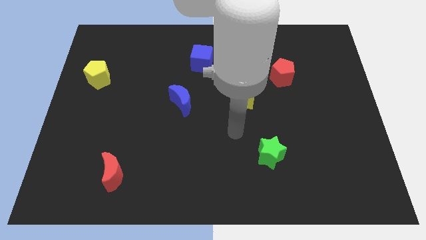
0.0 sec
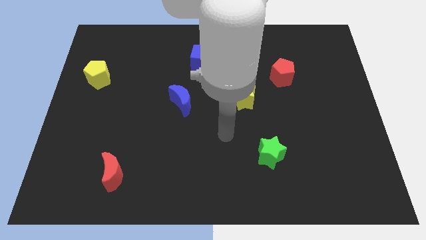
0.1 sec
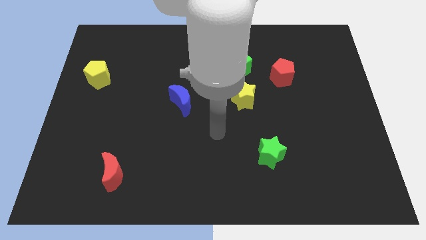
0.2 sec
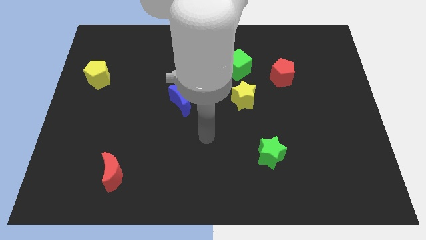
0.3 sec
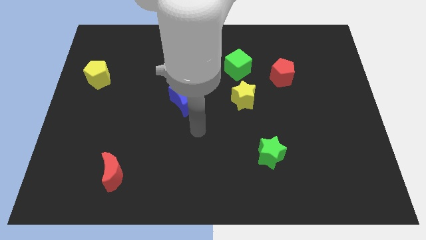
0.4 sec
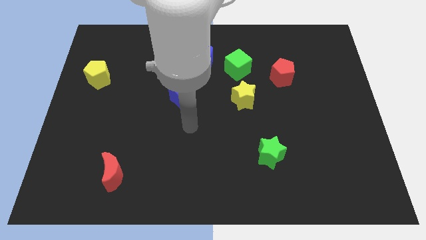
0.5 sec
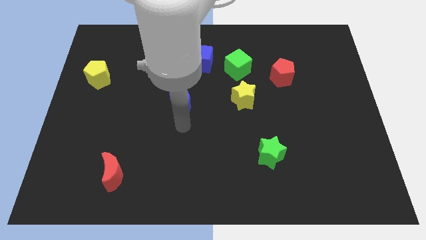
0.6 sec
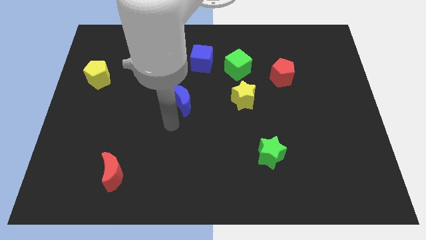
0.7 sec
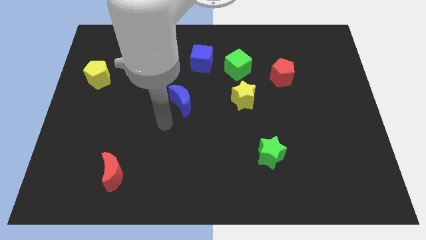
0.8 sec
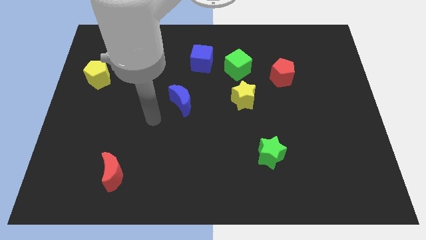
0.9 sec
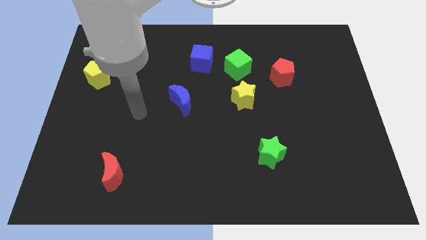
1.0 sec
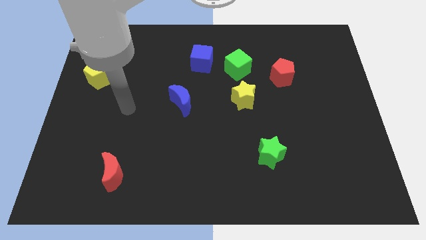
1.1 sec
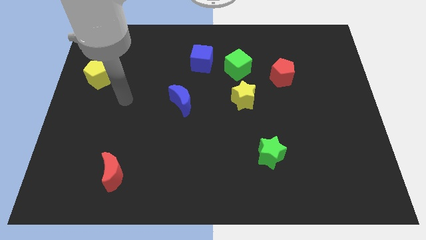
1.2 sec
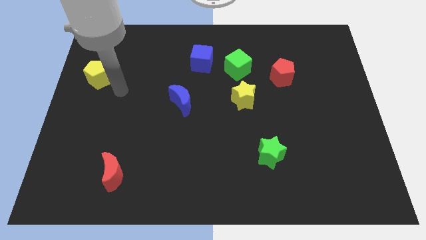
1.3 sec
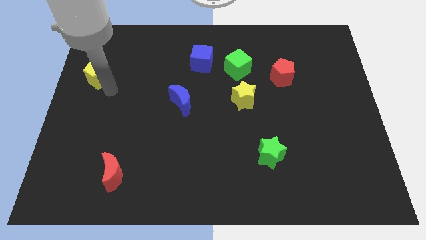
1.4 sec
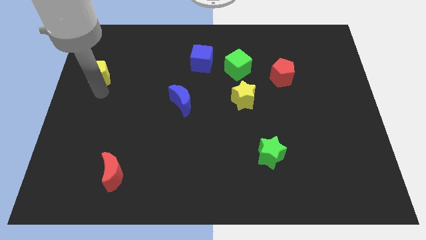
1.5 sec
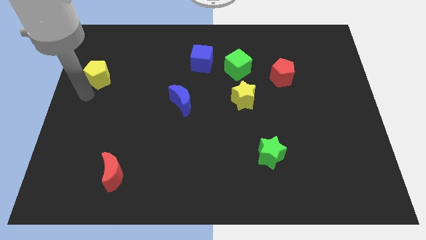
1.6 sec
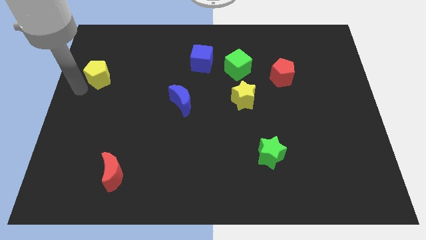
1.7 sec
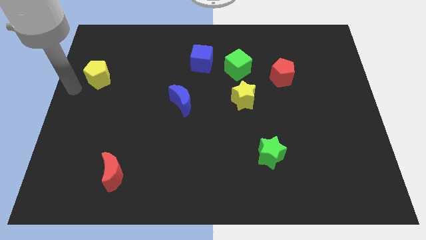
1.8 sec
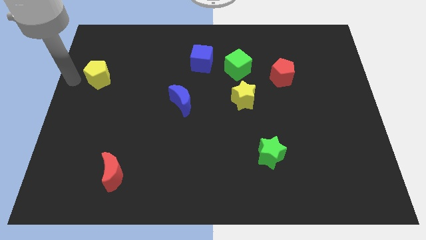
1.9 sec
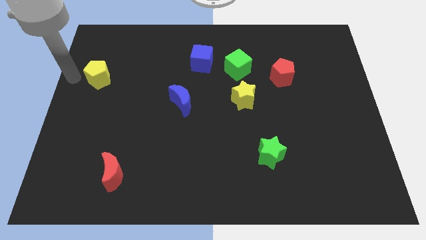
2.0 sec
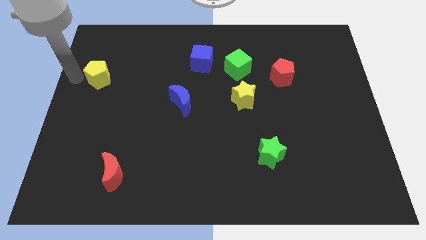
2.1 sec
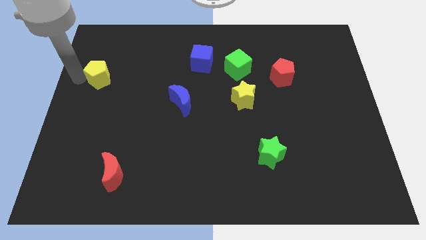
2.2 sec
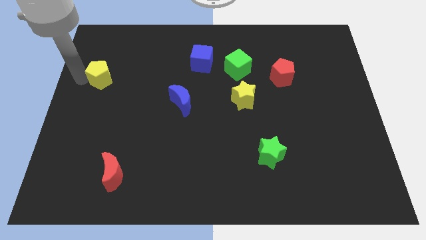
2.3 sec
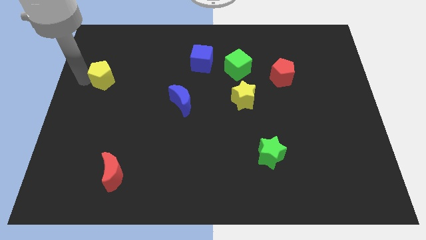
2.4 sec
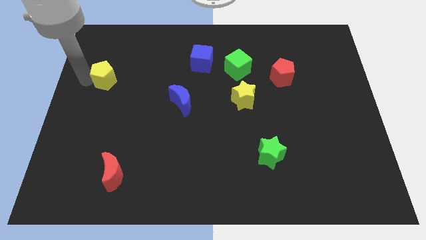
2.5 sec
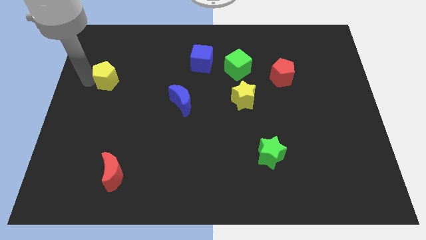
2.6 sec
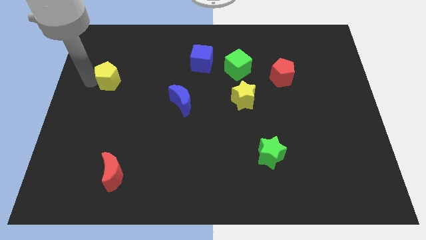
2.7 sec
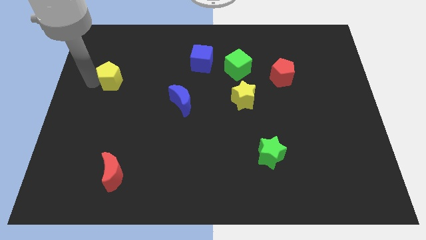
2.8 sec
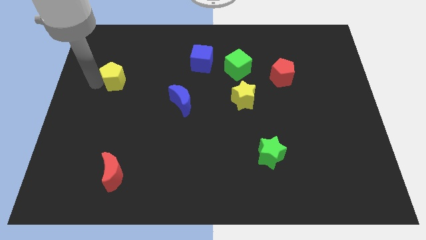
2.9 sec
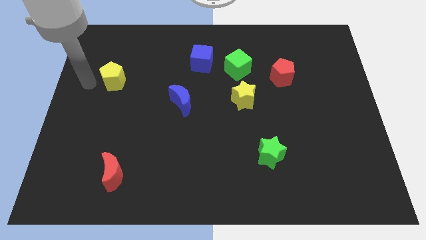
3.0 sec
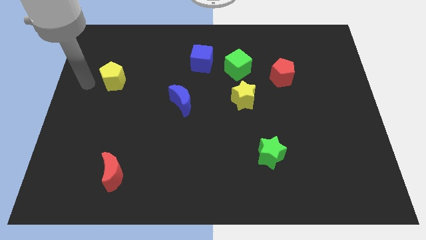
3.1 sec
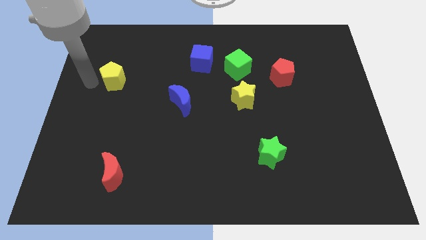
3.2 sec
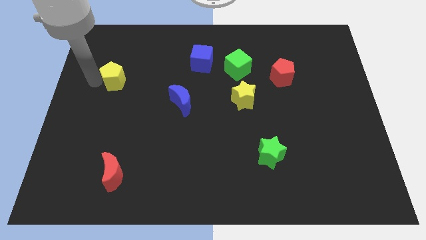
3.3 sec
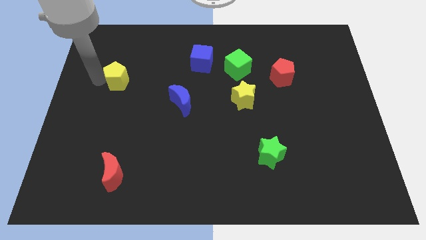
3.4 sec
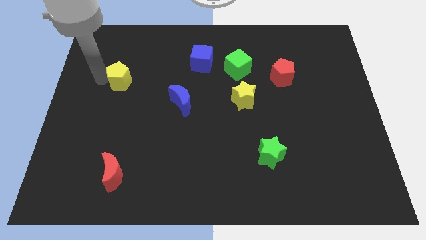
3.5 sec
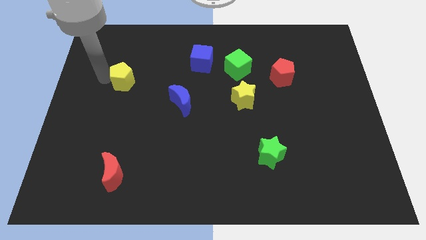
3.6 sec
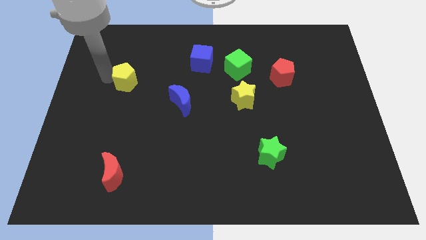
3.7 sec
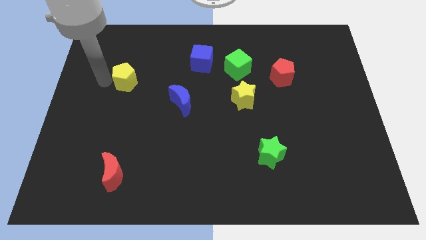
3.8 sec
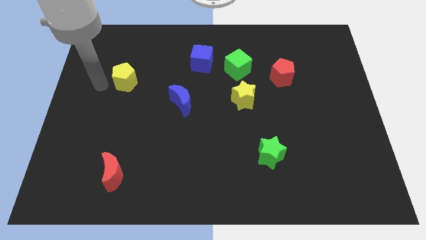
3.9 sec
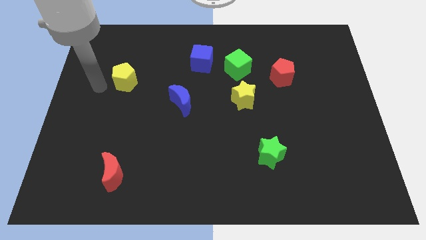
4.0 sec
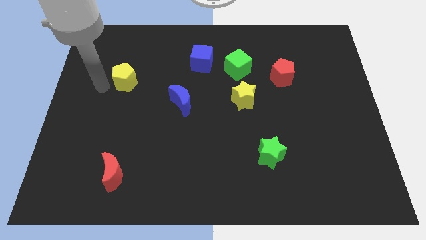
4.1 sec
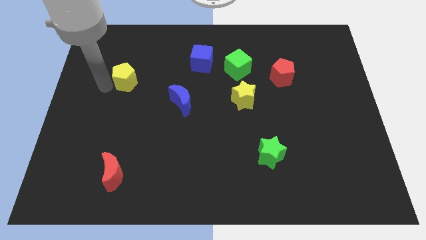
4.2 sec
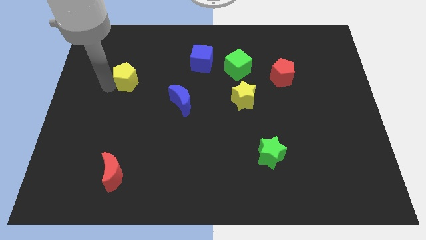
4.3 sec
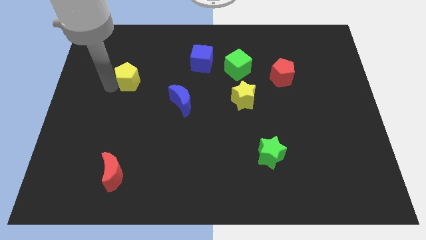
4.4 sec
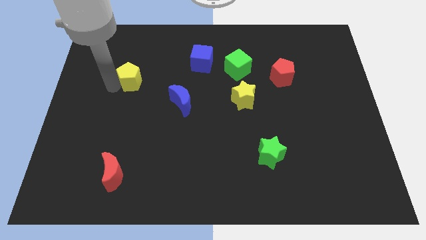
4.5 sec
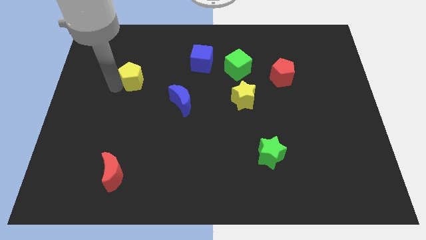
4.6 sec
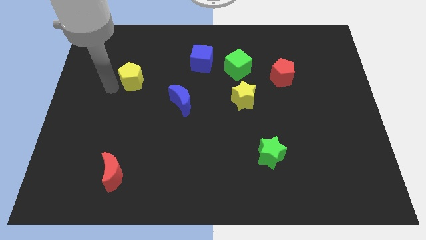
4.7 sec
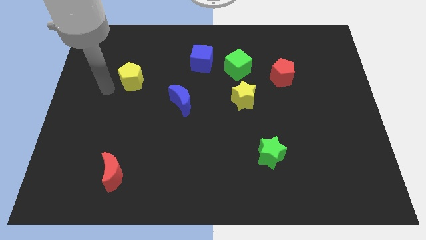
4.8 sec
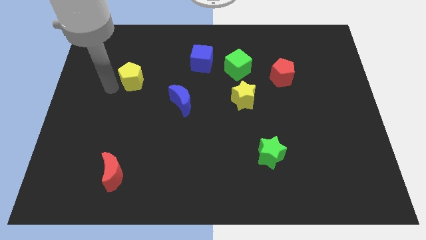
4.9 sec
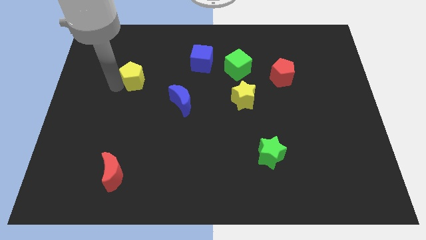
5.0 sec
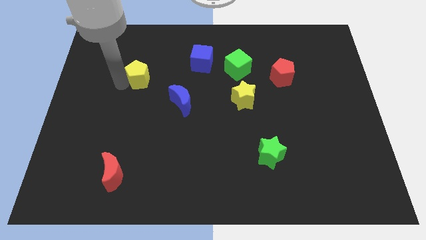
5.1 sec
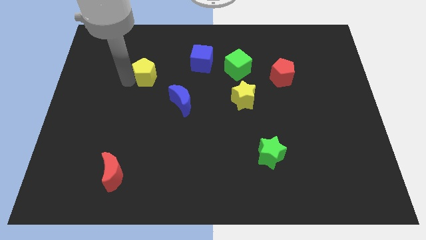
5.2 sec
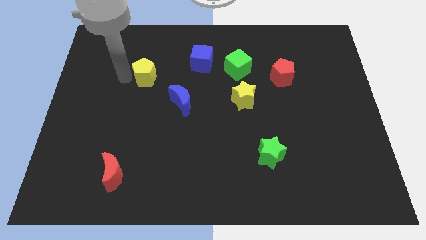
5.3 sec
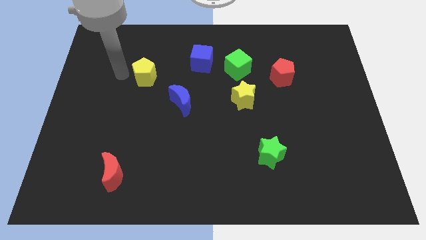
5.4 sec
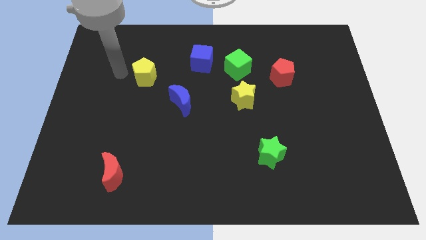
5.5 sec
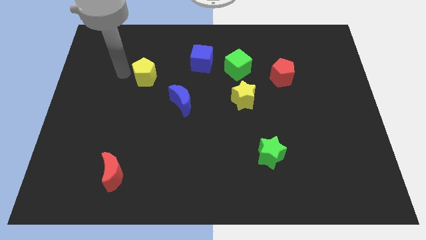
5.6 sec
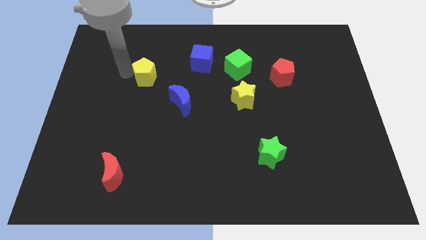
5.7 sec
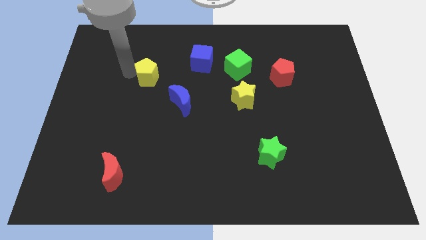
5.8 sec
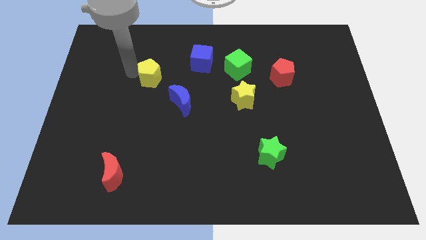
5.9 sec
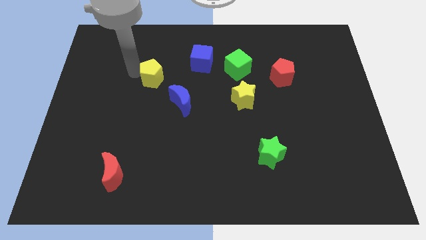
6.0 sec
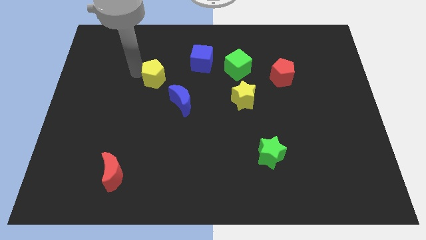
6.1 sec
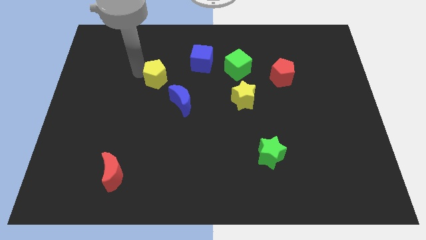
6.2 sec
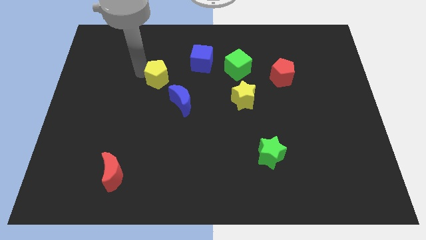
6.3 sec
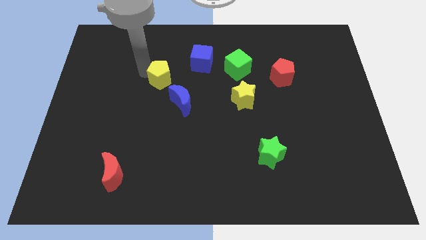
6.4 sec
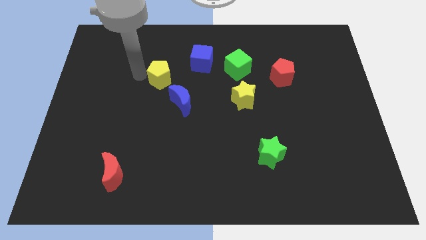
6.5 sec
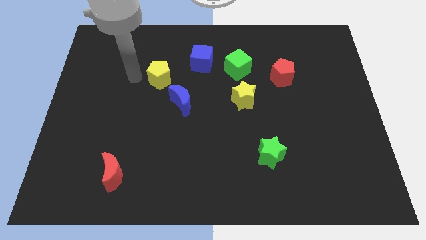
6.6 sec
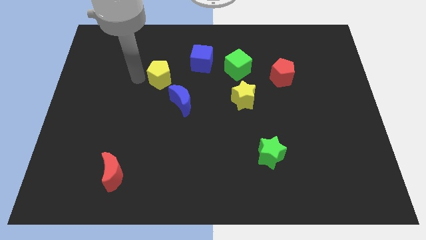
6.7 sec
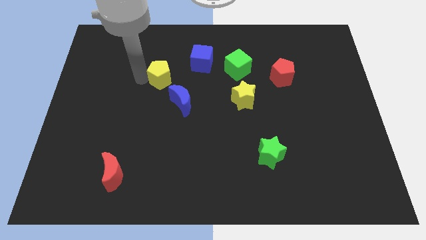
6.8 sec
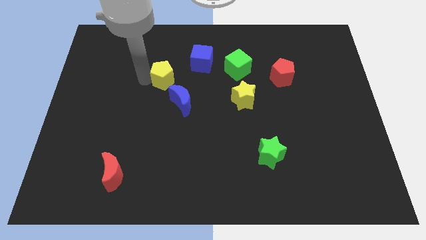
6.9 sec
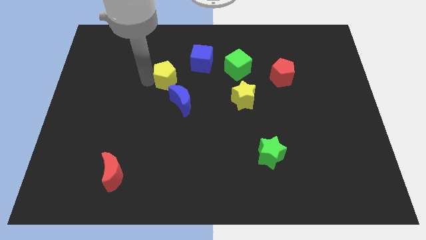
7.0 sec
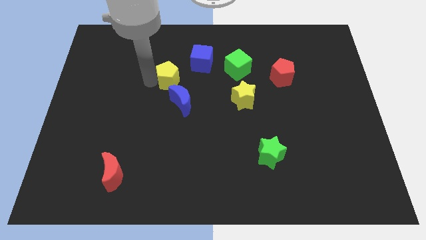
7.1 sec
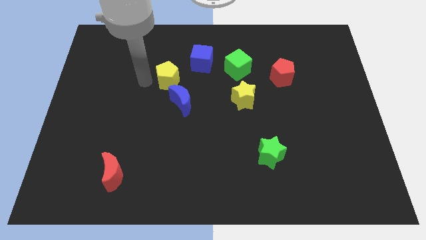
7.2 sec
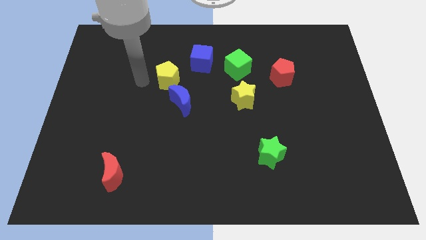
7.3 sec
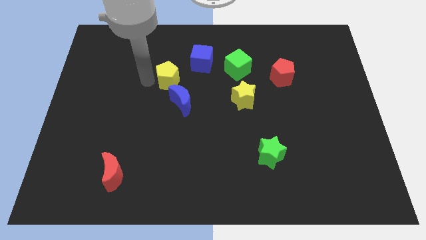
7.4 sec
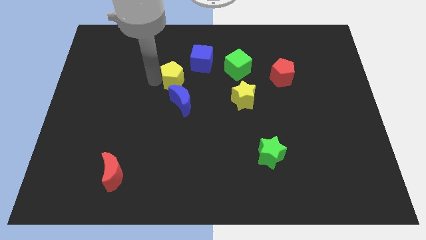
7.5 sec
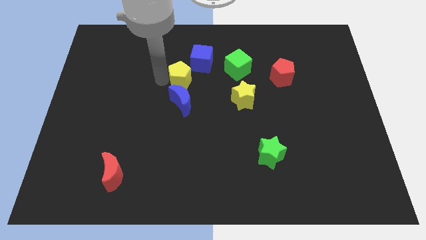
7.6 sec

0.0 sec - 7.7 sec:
move the yellow pentagon to the right

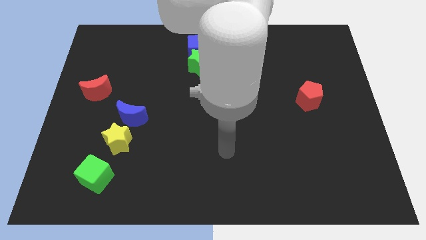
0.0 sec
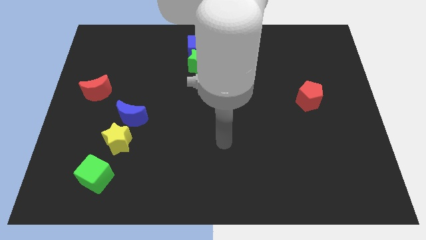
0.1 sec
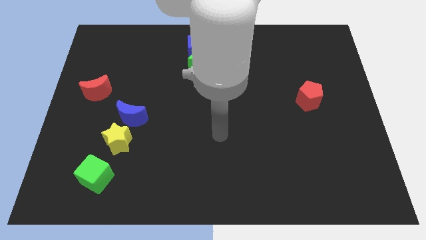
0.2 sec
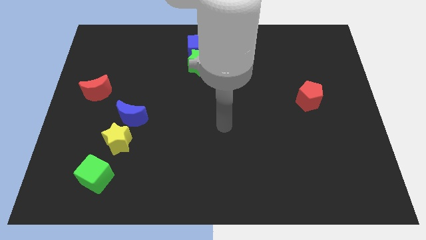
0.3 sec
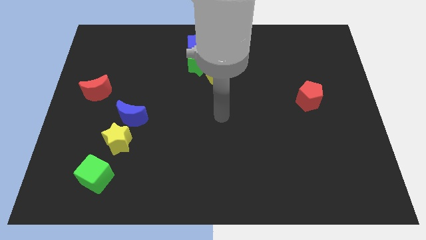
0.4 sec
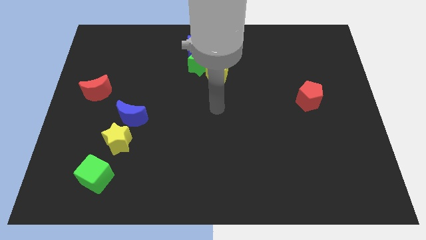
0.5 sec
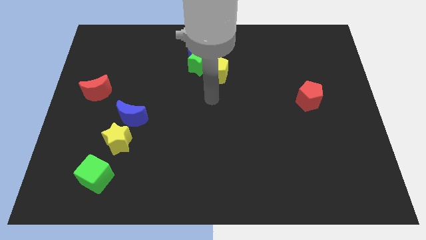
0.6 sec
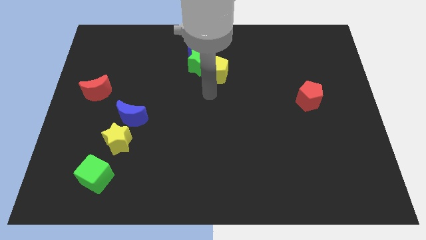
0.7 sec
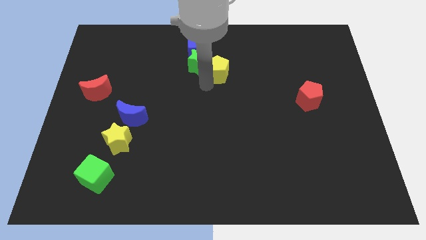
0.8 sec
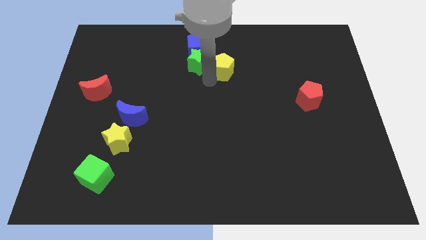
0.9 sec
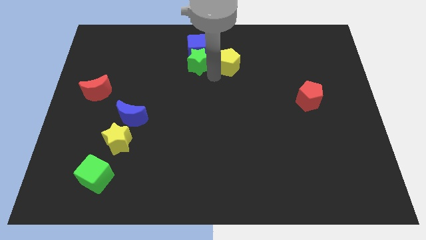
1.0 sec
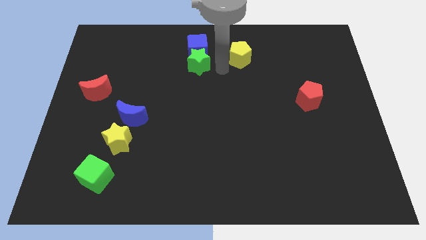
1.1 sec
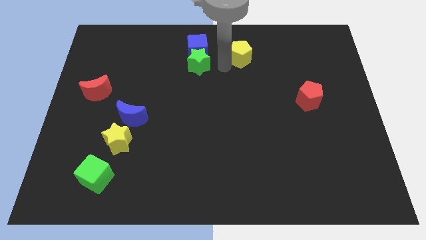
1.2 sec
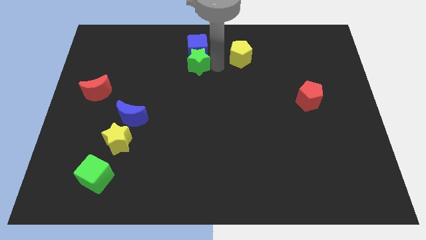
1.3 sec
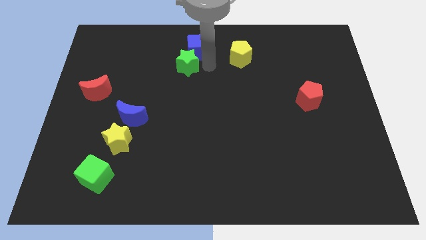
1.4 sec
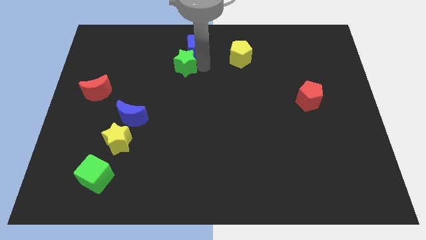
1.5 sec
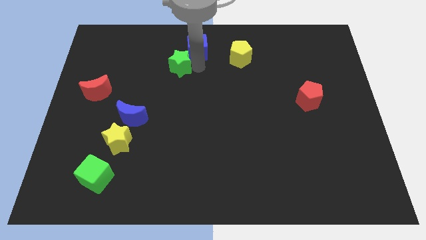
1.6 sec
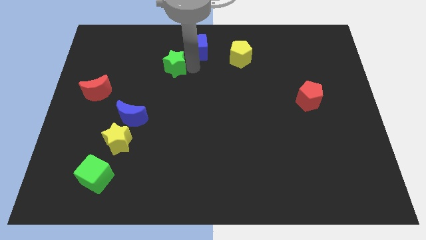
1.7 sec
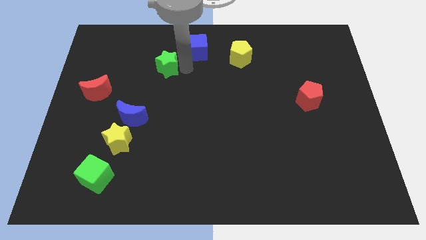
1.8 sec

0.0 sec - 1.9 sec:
slide the green star to the left slightly
